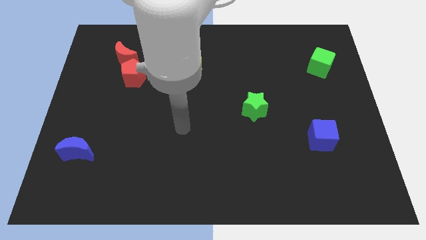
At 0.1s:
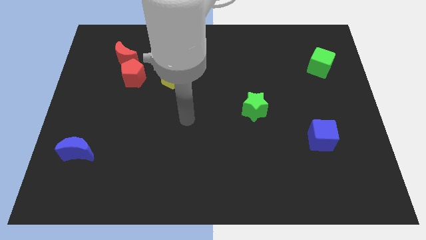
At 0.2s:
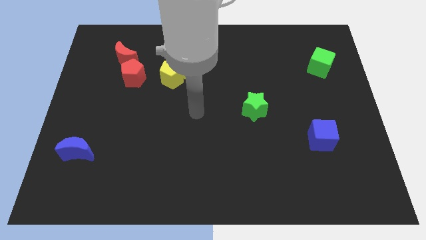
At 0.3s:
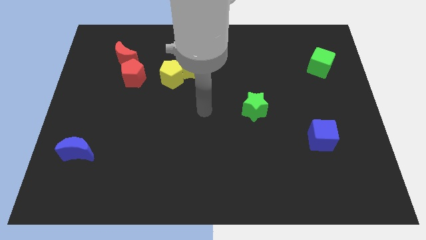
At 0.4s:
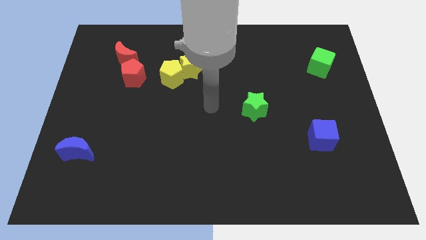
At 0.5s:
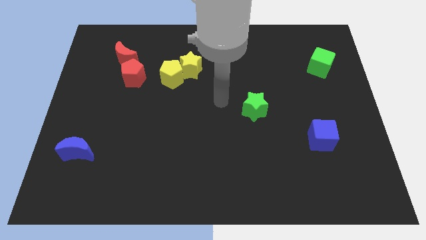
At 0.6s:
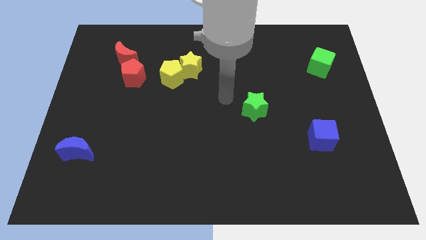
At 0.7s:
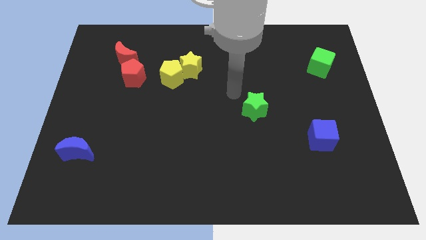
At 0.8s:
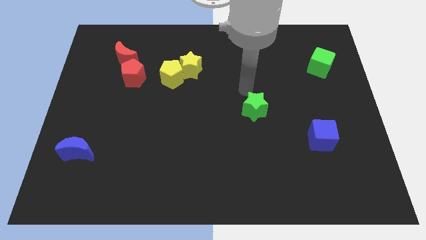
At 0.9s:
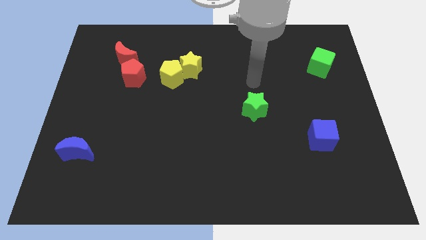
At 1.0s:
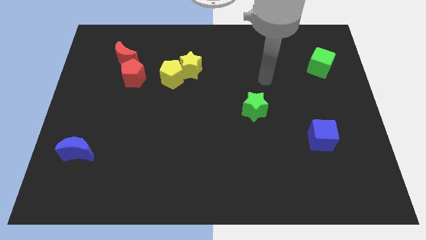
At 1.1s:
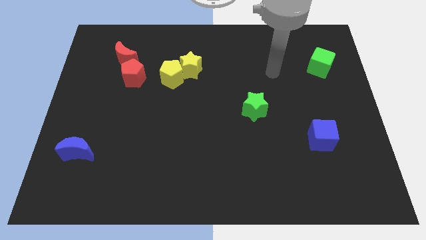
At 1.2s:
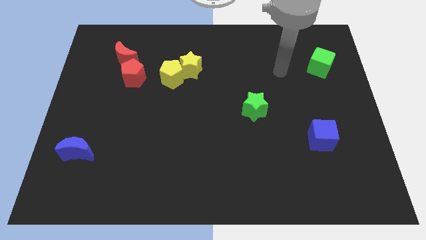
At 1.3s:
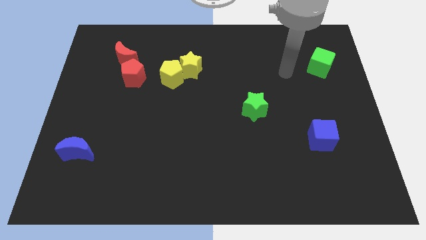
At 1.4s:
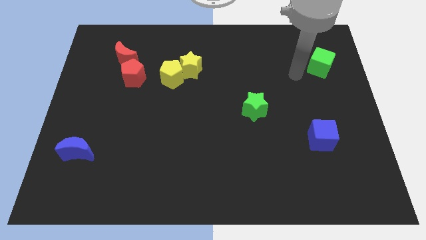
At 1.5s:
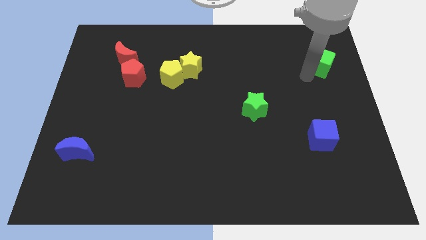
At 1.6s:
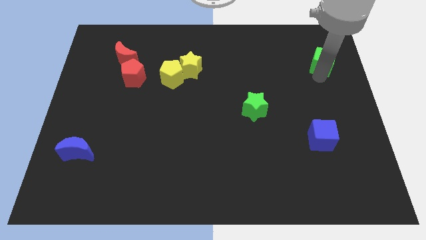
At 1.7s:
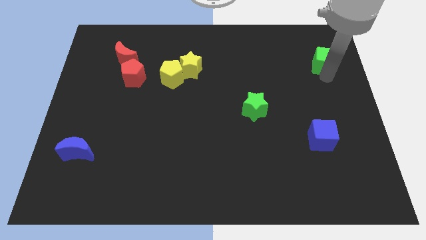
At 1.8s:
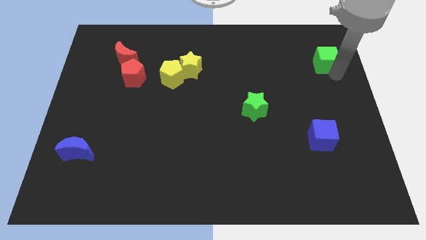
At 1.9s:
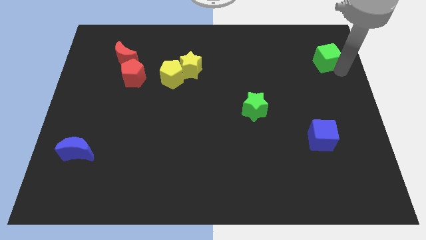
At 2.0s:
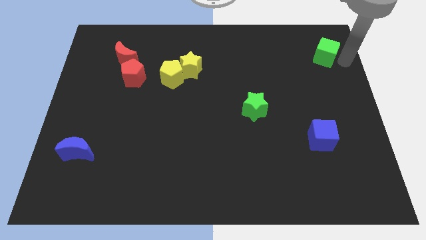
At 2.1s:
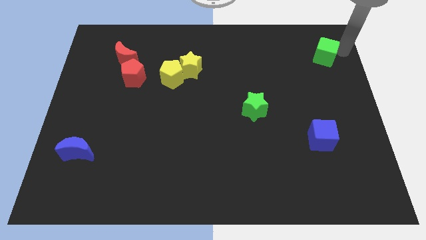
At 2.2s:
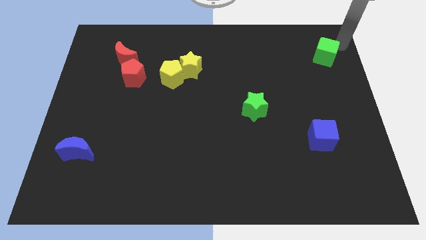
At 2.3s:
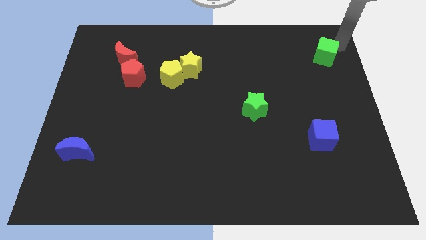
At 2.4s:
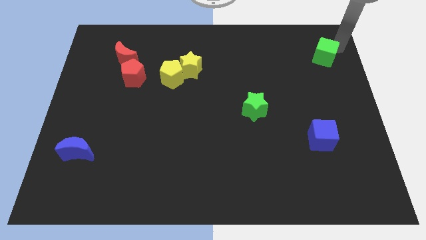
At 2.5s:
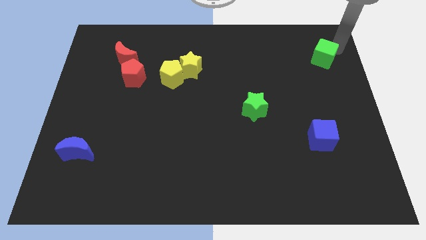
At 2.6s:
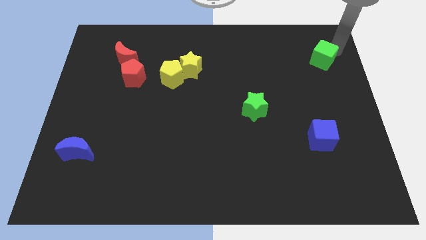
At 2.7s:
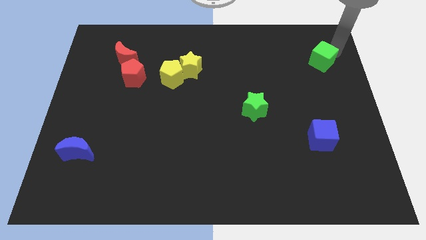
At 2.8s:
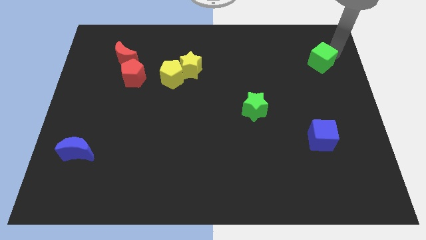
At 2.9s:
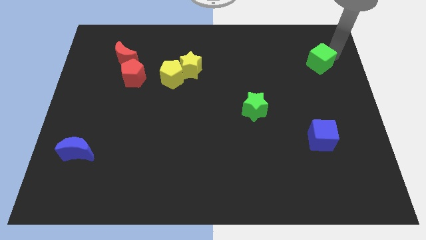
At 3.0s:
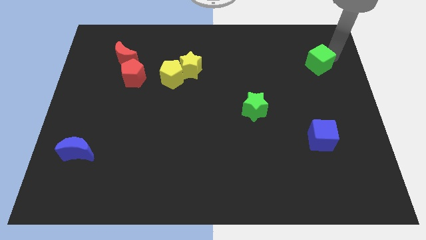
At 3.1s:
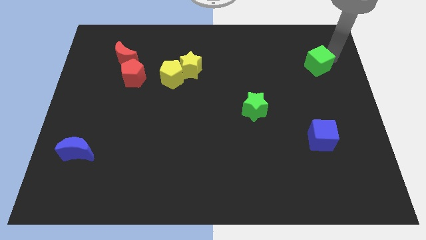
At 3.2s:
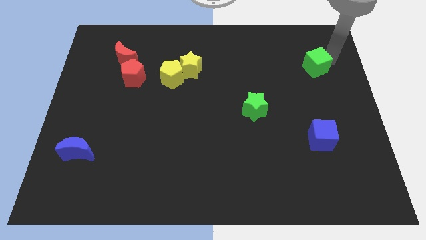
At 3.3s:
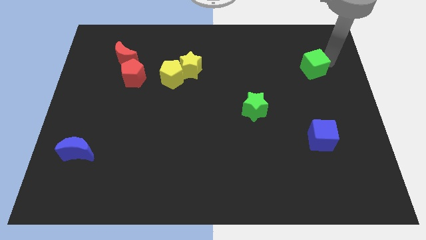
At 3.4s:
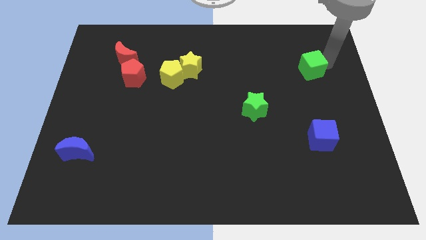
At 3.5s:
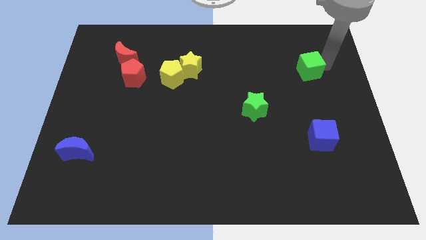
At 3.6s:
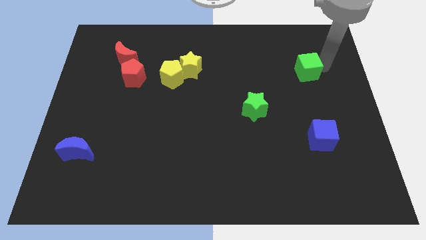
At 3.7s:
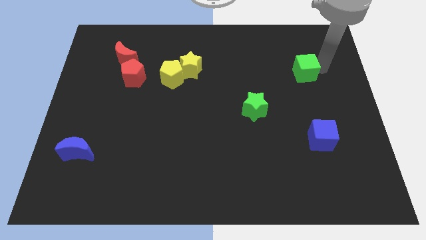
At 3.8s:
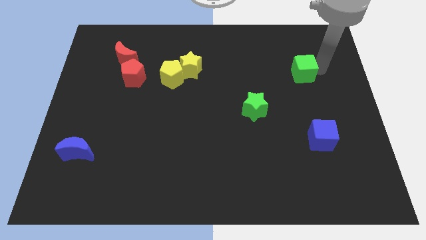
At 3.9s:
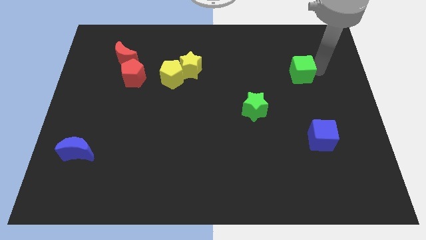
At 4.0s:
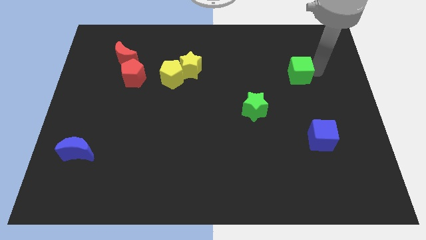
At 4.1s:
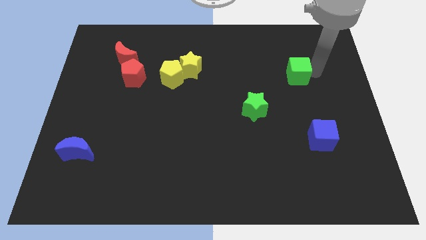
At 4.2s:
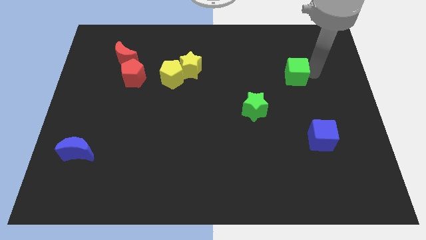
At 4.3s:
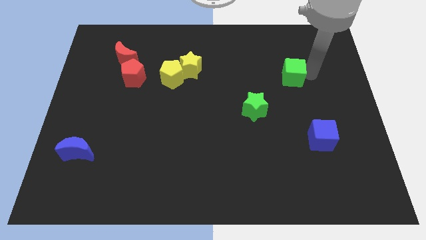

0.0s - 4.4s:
push the green cube a little bit to the left

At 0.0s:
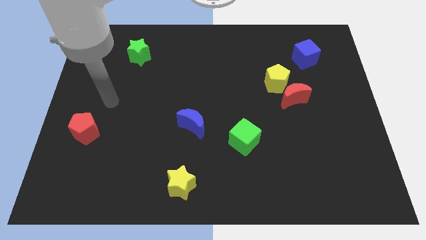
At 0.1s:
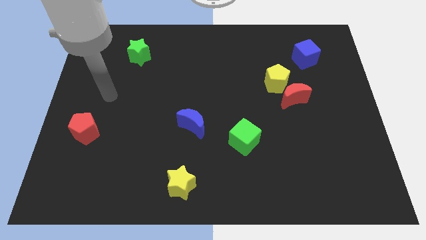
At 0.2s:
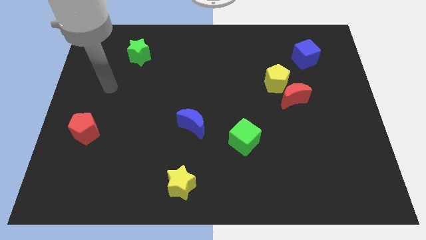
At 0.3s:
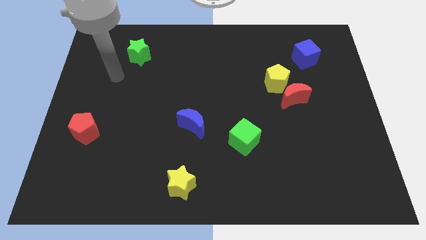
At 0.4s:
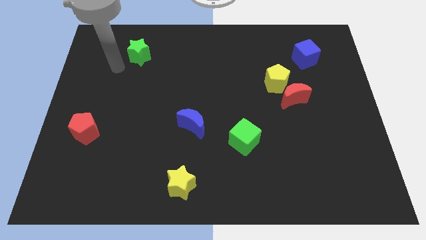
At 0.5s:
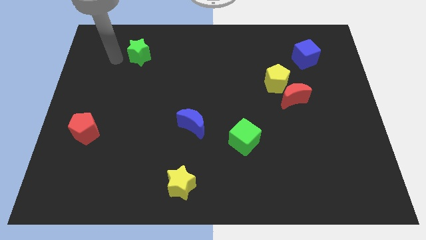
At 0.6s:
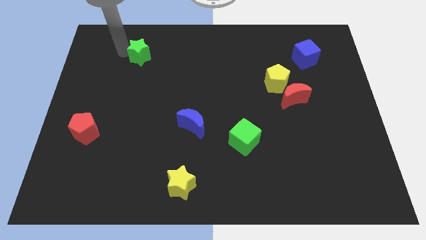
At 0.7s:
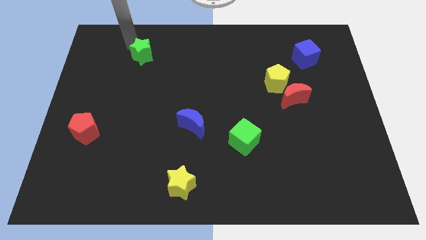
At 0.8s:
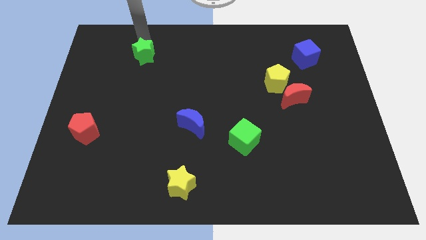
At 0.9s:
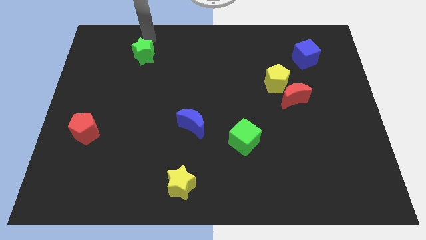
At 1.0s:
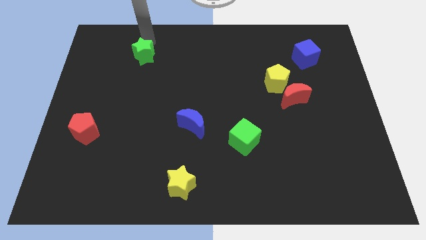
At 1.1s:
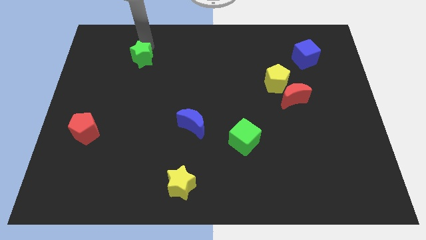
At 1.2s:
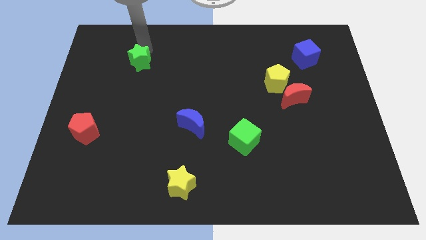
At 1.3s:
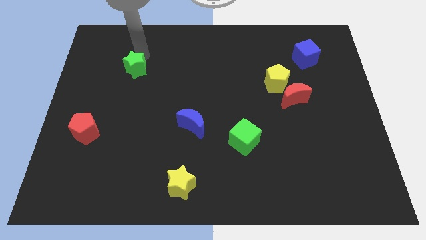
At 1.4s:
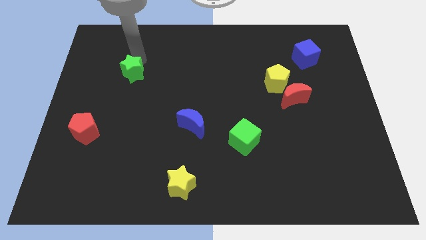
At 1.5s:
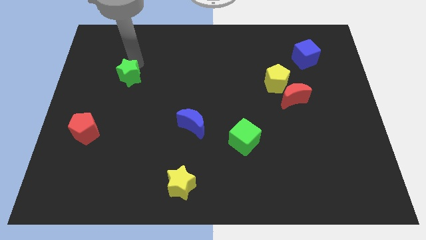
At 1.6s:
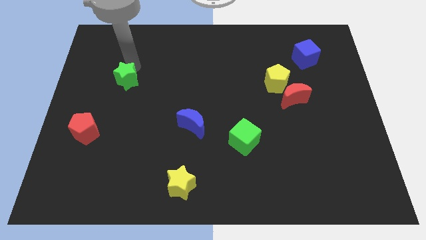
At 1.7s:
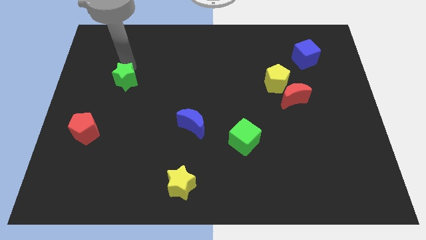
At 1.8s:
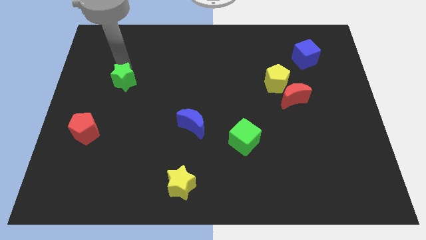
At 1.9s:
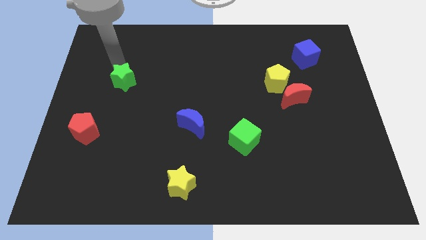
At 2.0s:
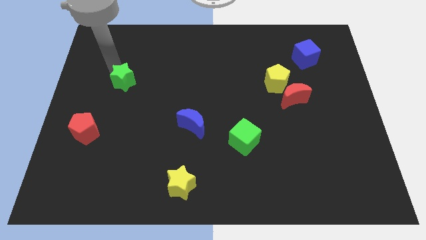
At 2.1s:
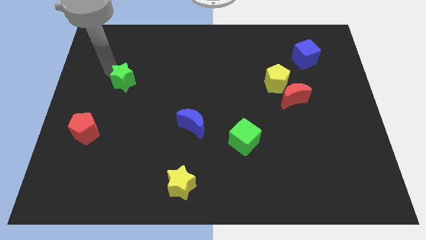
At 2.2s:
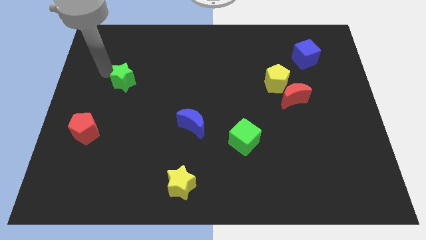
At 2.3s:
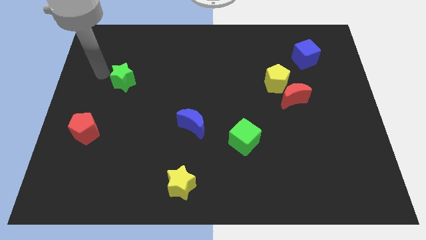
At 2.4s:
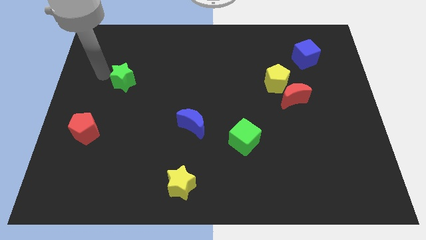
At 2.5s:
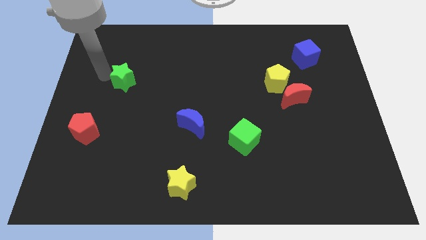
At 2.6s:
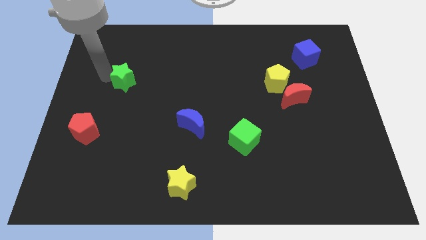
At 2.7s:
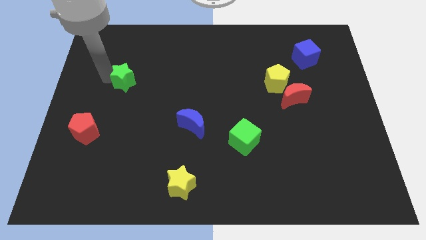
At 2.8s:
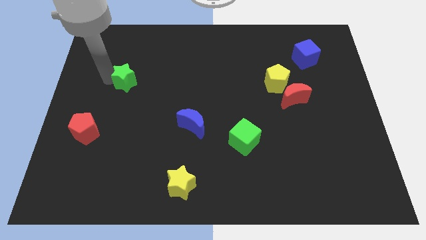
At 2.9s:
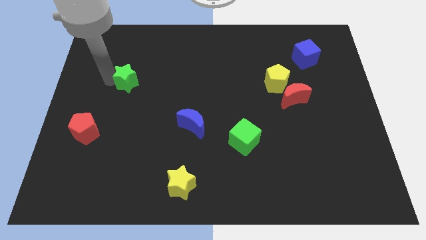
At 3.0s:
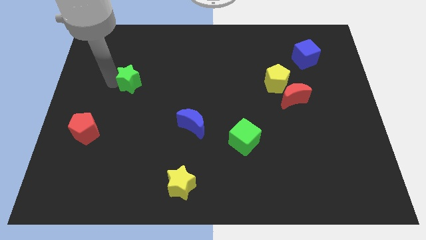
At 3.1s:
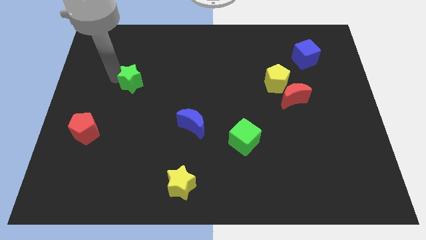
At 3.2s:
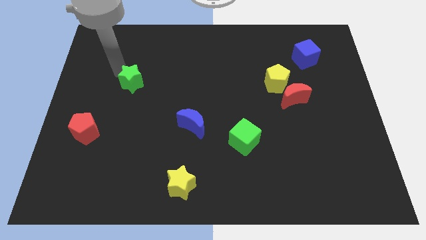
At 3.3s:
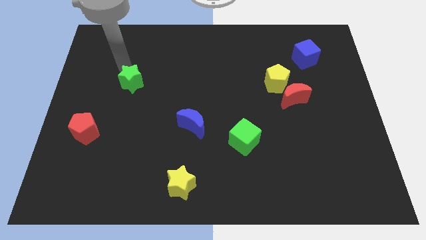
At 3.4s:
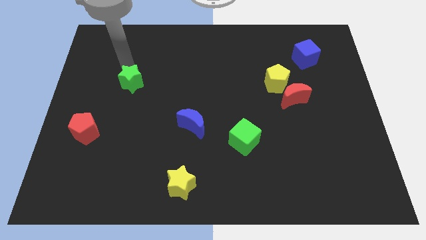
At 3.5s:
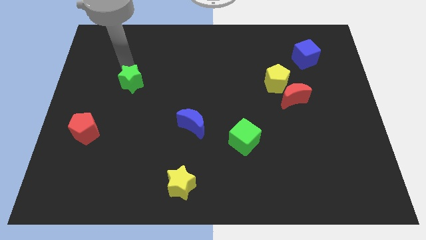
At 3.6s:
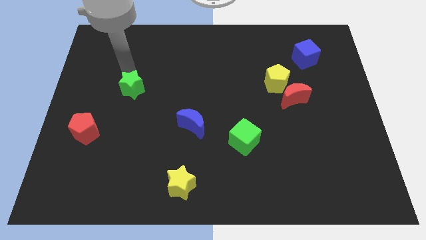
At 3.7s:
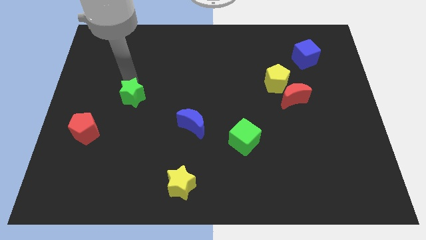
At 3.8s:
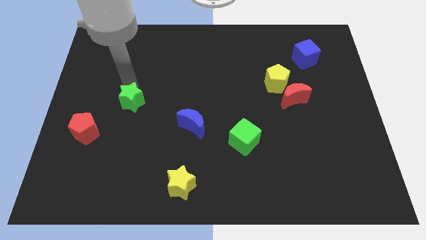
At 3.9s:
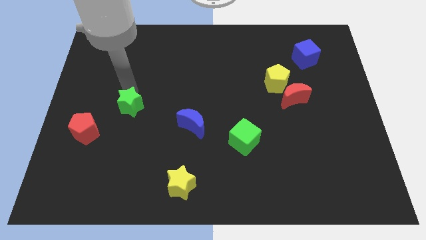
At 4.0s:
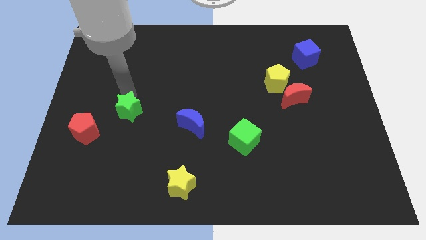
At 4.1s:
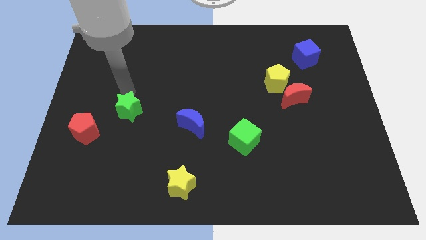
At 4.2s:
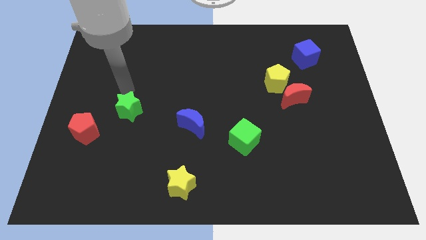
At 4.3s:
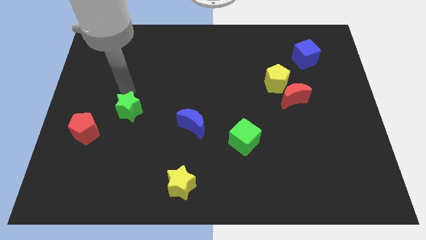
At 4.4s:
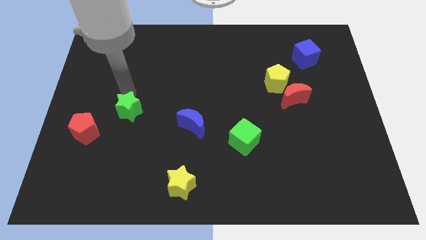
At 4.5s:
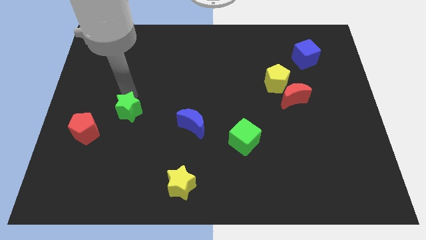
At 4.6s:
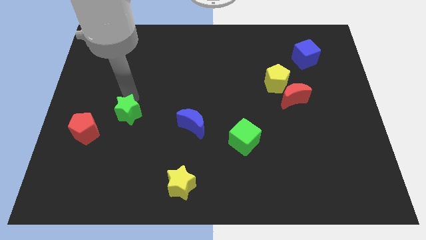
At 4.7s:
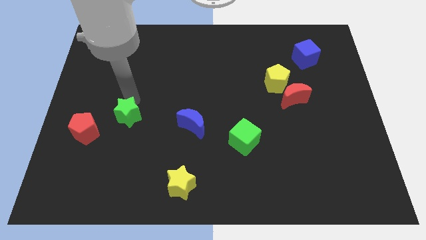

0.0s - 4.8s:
move the green star down
